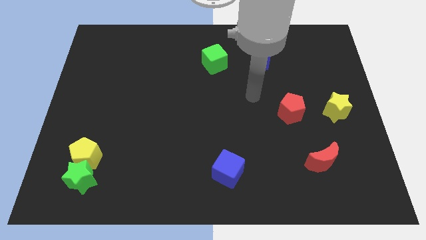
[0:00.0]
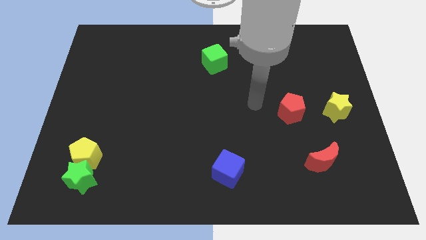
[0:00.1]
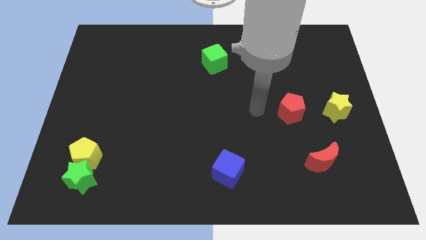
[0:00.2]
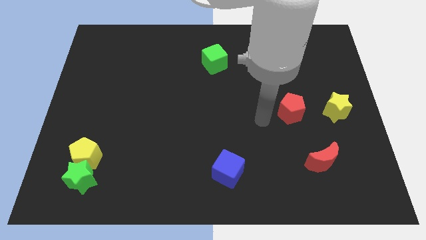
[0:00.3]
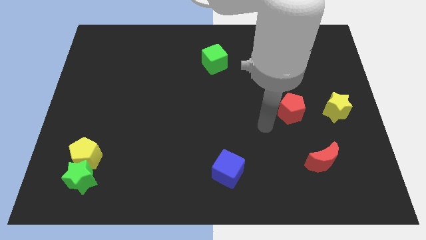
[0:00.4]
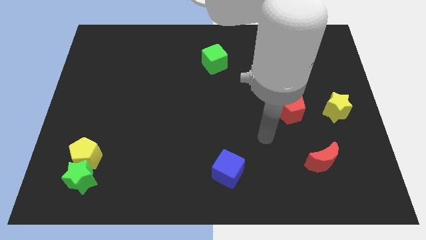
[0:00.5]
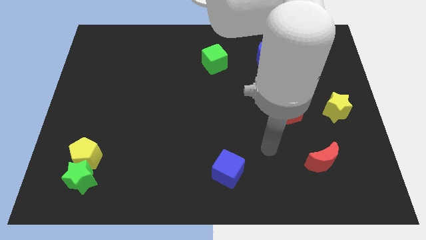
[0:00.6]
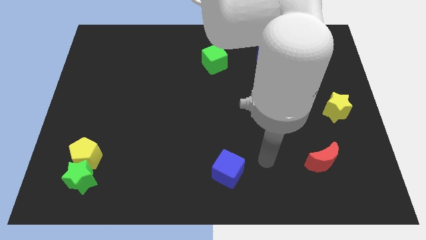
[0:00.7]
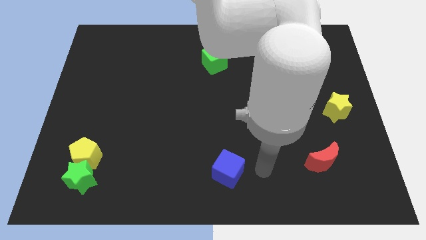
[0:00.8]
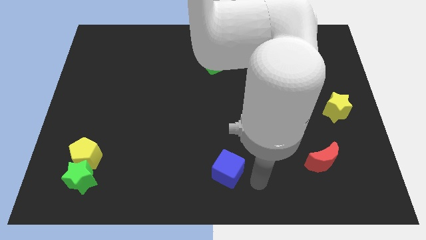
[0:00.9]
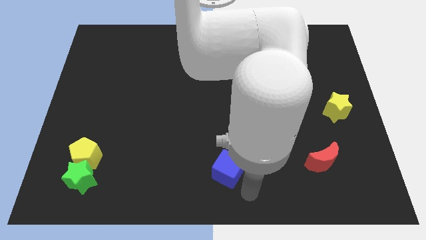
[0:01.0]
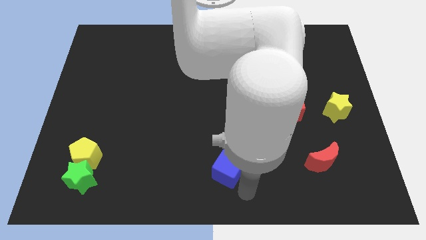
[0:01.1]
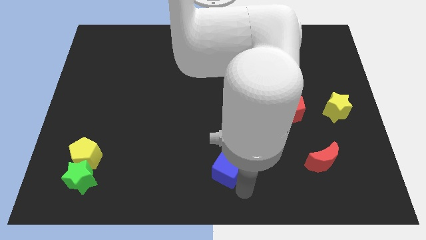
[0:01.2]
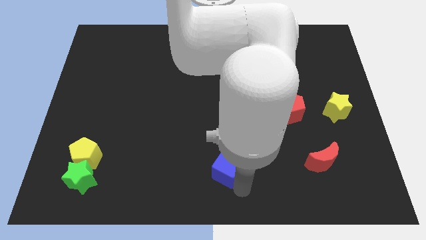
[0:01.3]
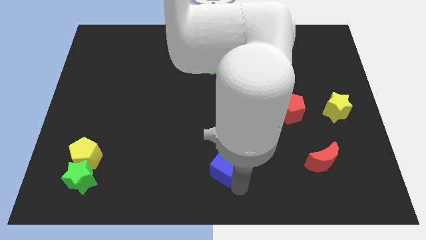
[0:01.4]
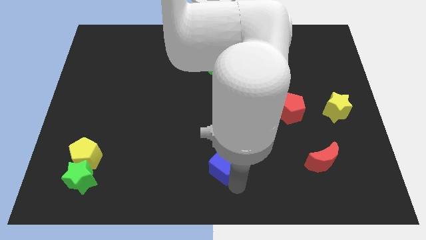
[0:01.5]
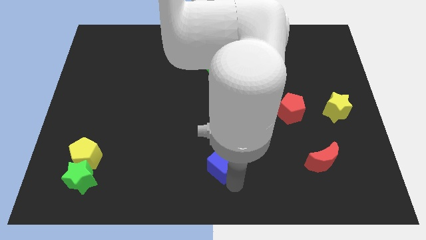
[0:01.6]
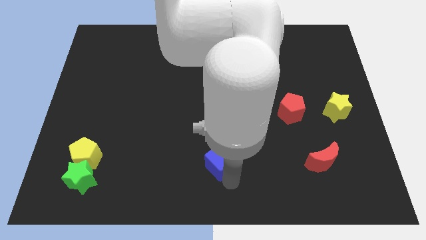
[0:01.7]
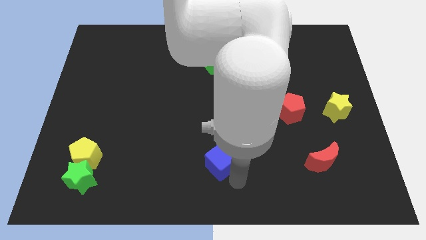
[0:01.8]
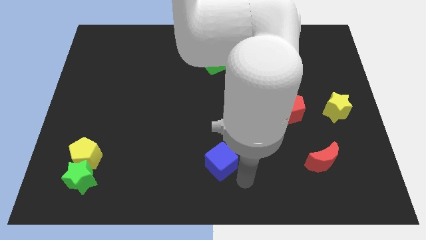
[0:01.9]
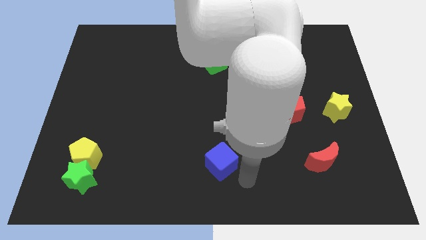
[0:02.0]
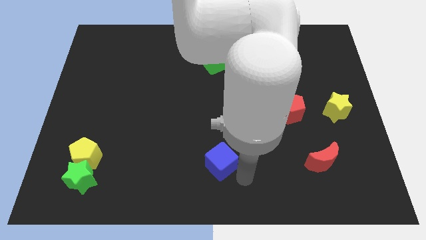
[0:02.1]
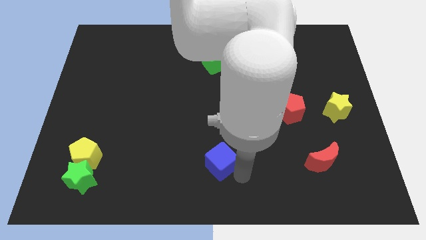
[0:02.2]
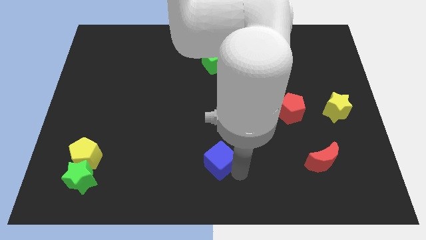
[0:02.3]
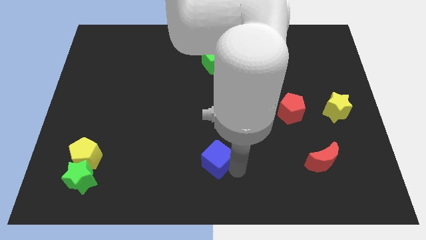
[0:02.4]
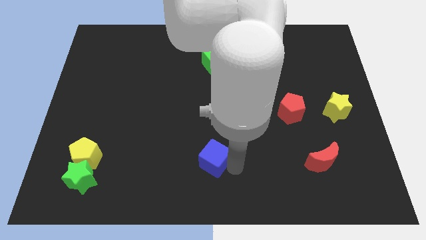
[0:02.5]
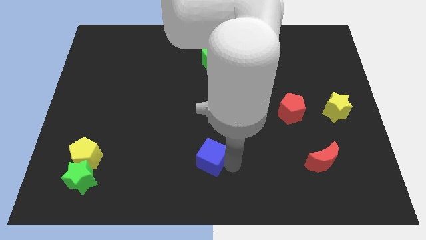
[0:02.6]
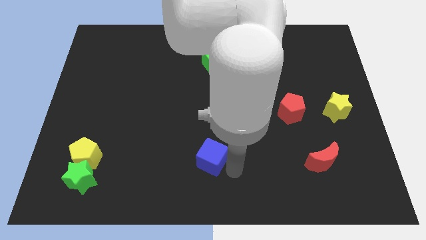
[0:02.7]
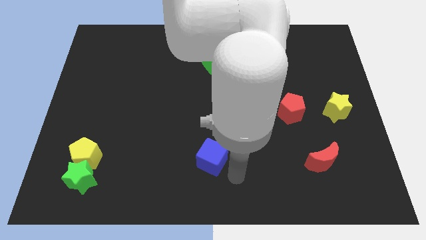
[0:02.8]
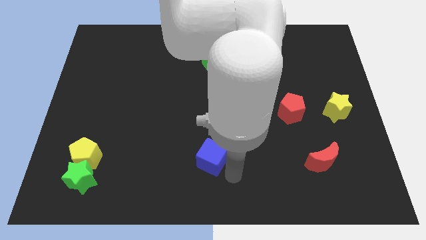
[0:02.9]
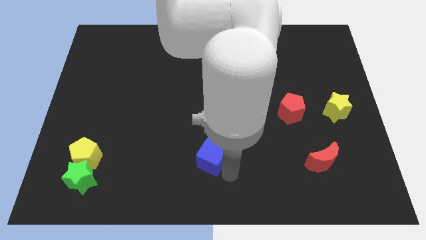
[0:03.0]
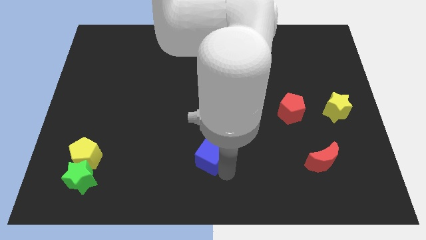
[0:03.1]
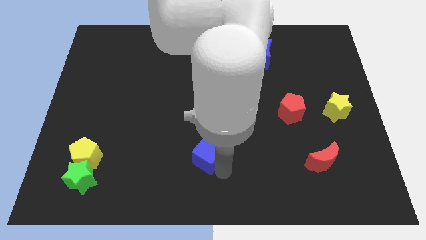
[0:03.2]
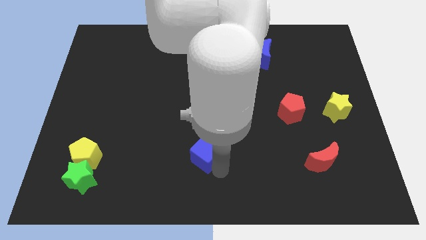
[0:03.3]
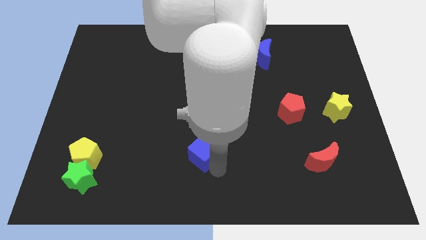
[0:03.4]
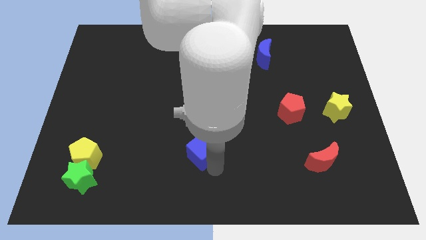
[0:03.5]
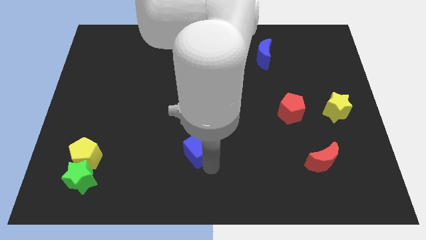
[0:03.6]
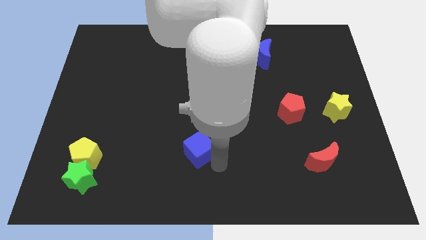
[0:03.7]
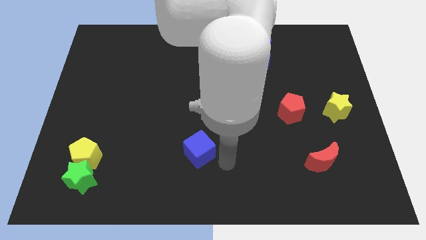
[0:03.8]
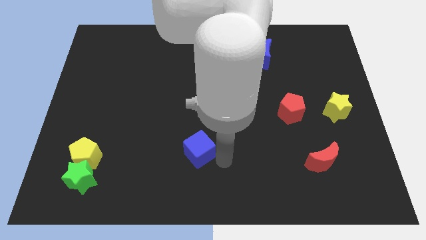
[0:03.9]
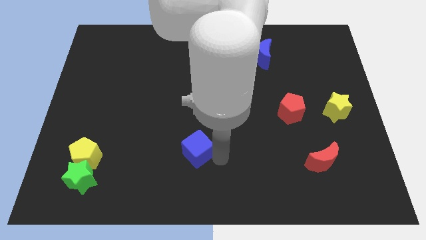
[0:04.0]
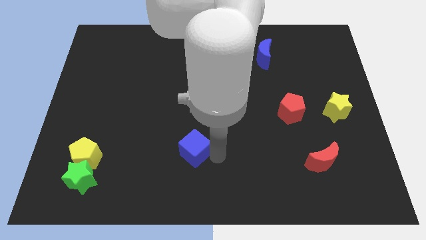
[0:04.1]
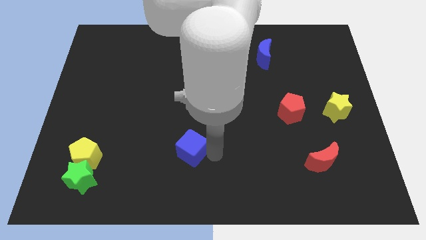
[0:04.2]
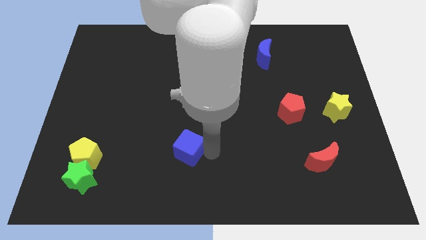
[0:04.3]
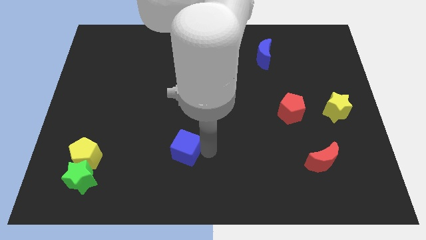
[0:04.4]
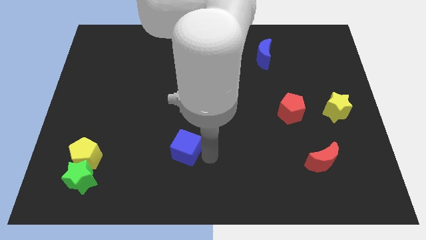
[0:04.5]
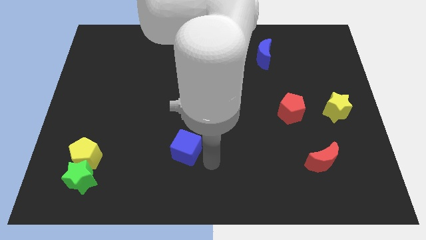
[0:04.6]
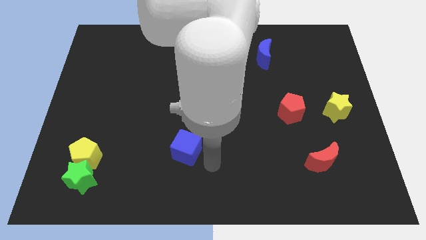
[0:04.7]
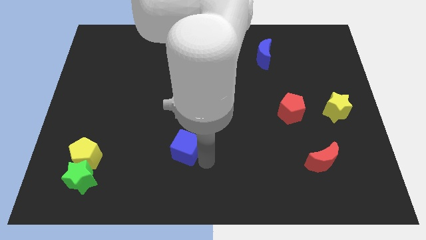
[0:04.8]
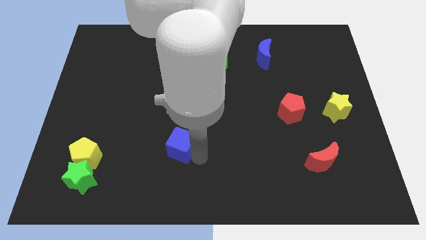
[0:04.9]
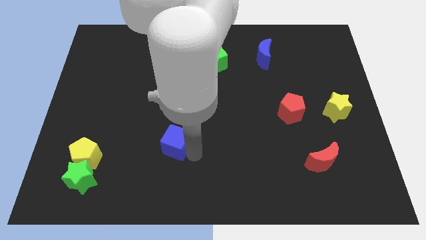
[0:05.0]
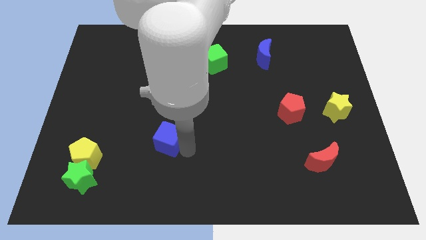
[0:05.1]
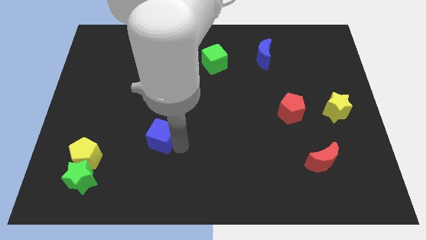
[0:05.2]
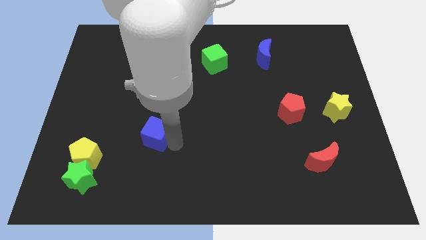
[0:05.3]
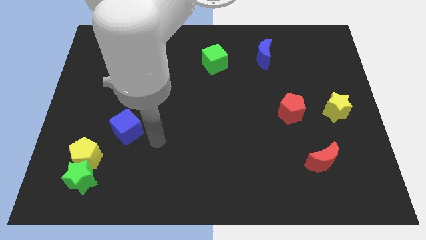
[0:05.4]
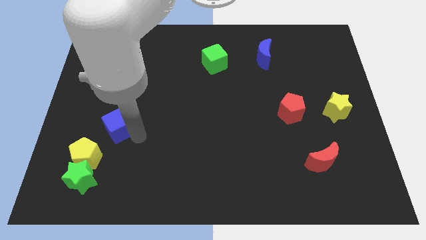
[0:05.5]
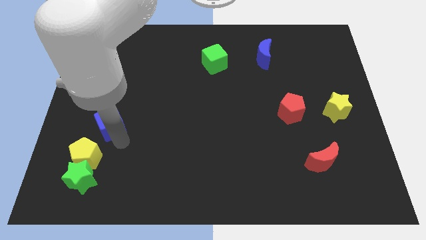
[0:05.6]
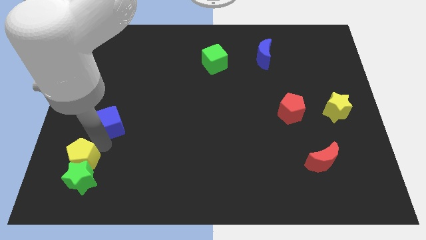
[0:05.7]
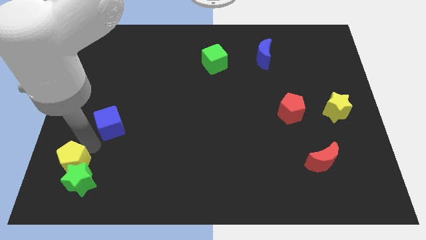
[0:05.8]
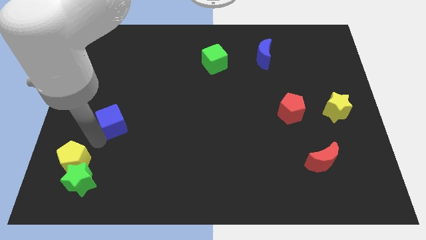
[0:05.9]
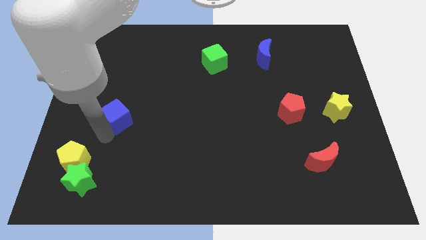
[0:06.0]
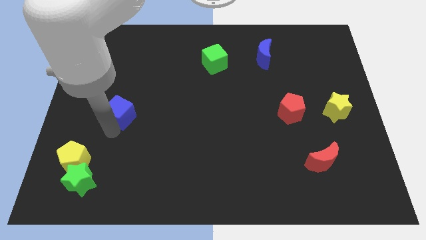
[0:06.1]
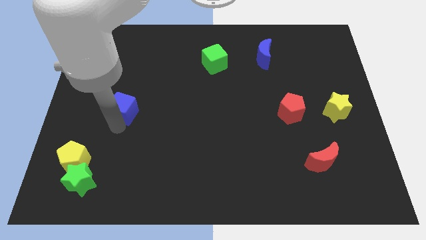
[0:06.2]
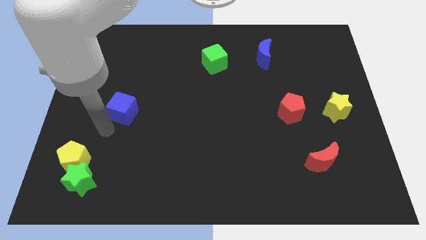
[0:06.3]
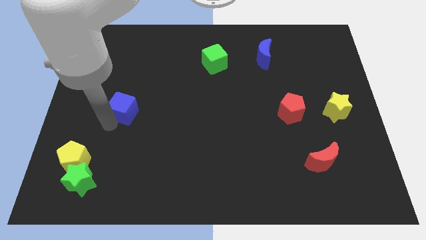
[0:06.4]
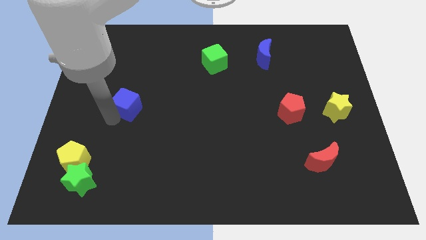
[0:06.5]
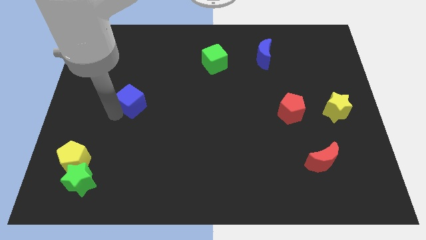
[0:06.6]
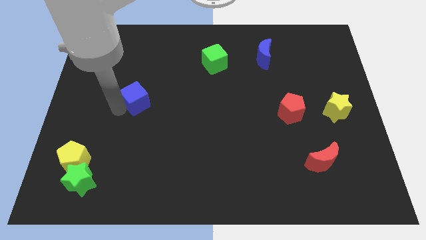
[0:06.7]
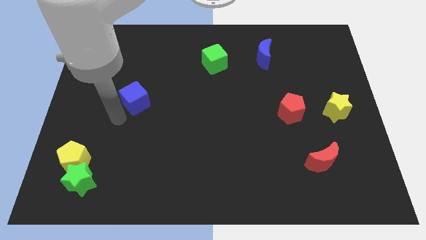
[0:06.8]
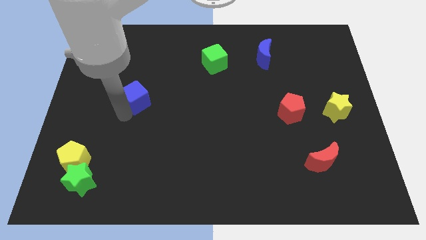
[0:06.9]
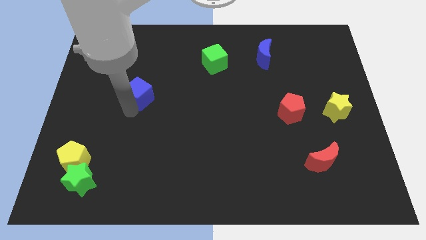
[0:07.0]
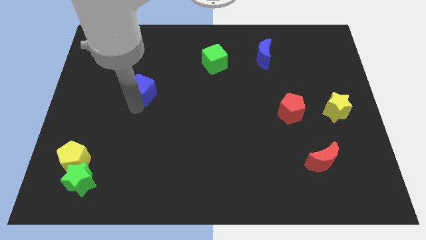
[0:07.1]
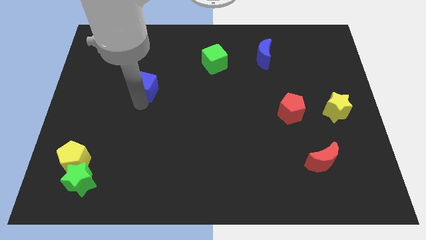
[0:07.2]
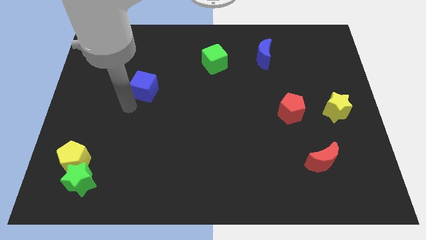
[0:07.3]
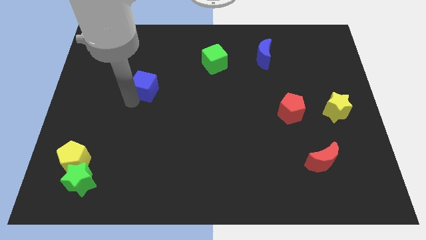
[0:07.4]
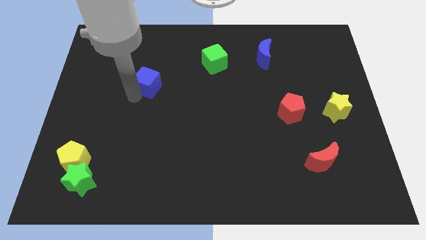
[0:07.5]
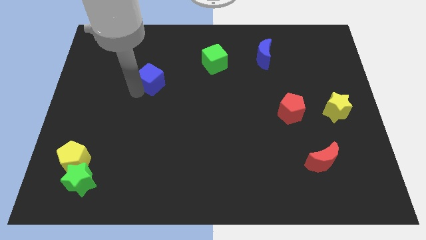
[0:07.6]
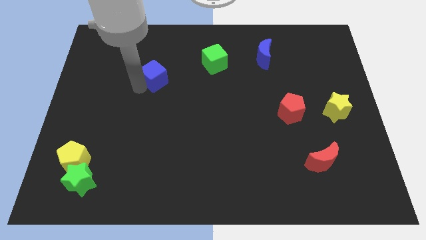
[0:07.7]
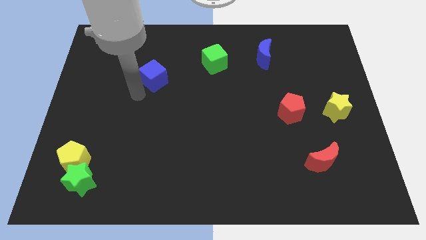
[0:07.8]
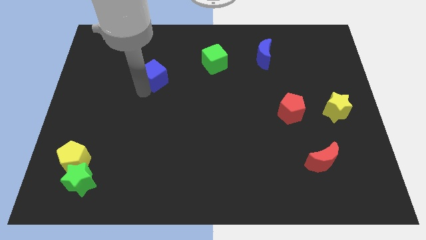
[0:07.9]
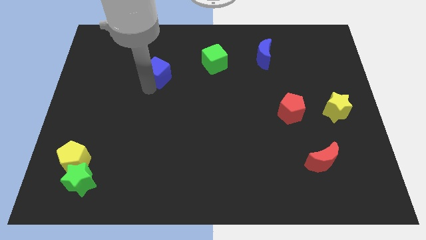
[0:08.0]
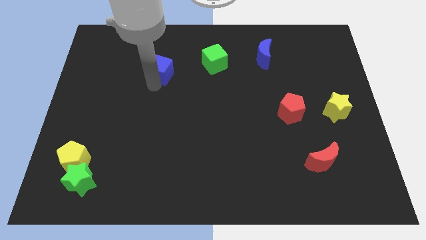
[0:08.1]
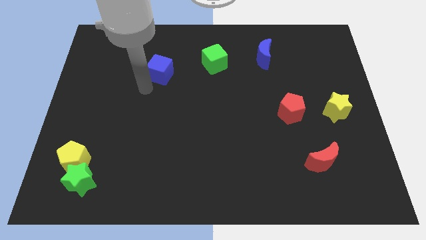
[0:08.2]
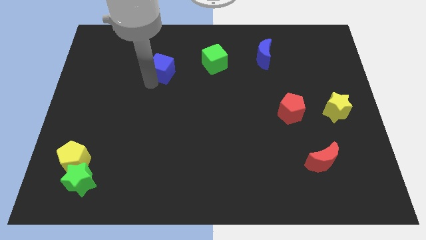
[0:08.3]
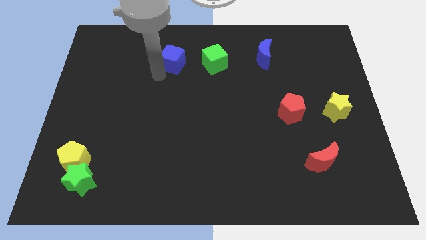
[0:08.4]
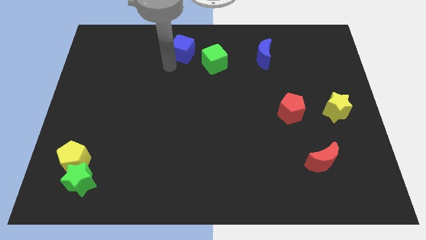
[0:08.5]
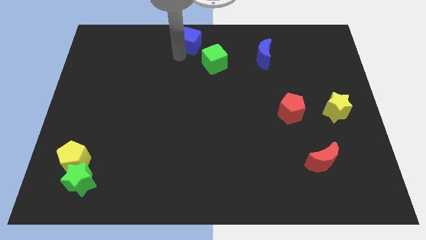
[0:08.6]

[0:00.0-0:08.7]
push the blue cube to the top side
